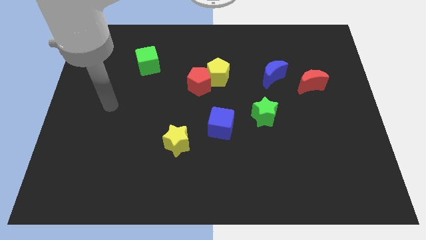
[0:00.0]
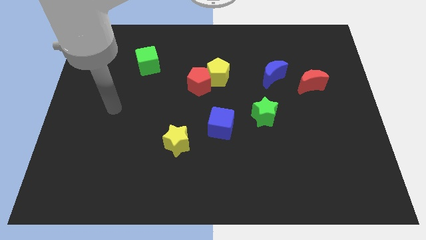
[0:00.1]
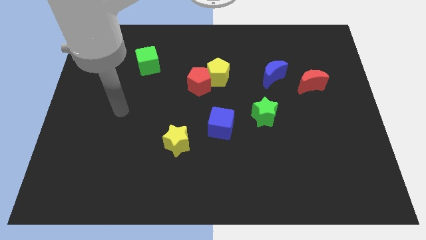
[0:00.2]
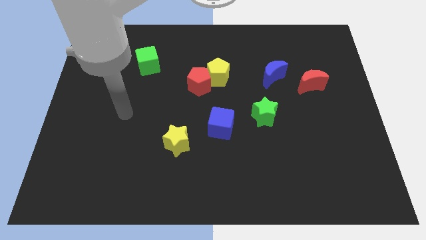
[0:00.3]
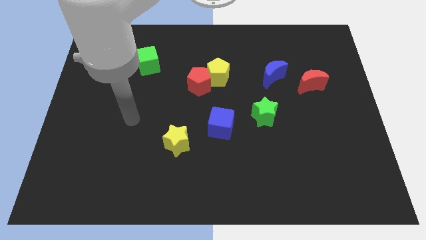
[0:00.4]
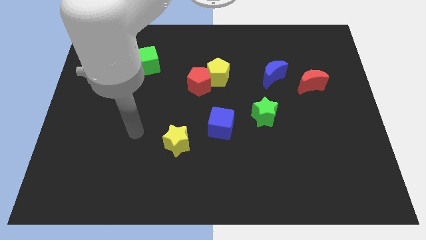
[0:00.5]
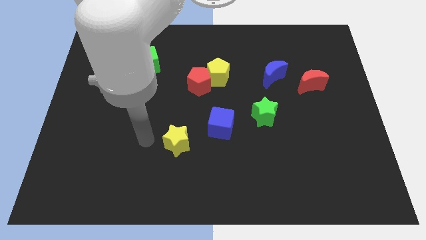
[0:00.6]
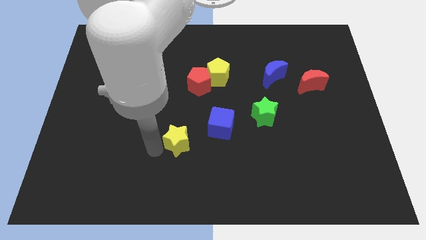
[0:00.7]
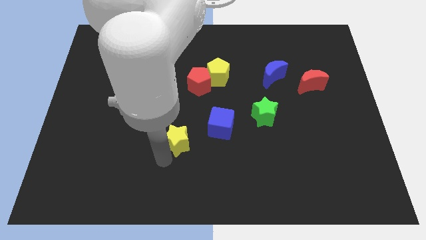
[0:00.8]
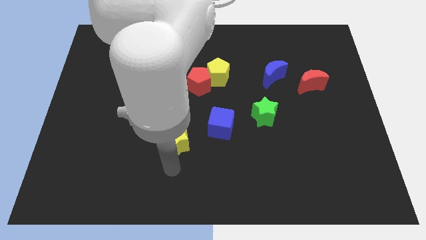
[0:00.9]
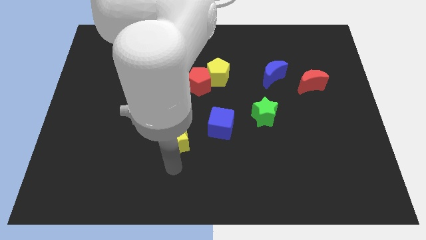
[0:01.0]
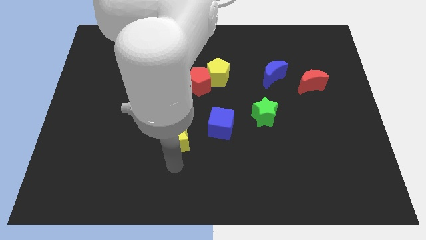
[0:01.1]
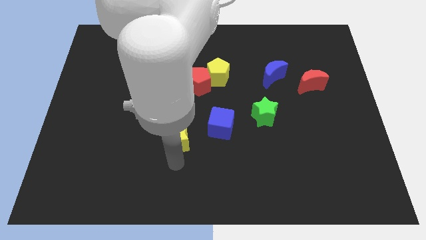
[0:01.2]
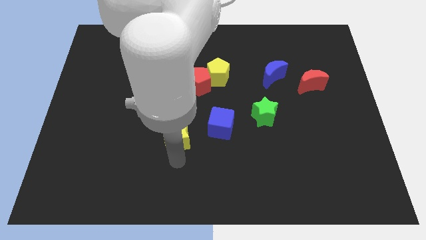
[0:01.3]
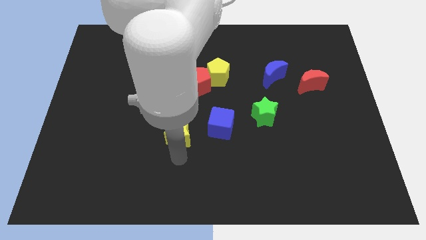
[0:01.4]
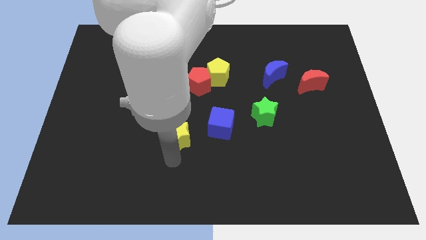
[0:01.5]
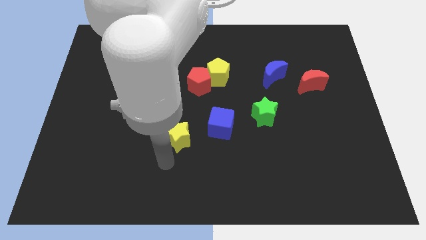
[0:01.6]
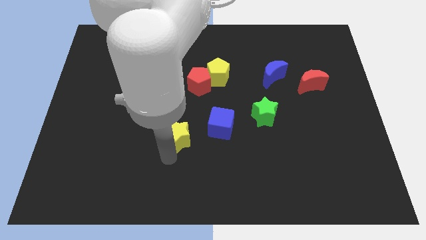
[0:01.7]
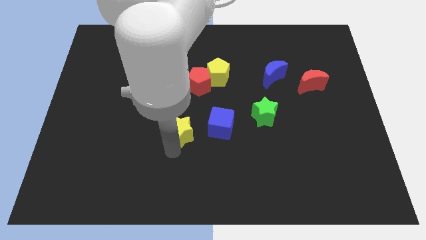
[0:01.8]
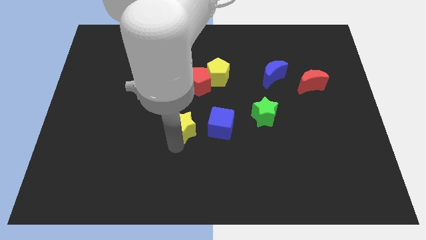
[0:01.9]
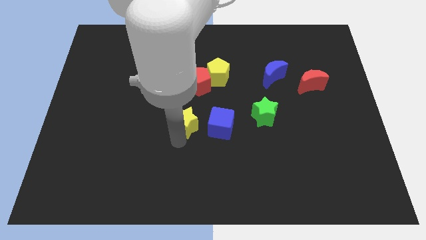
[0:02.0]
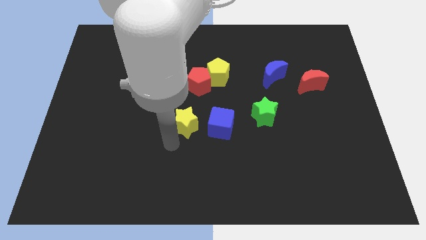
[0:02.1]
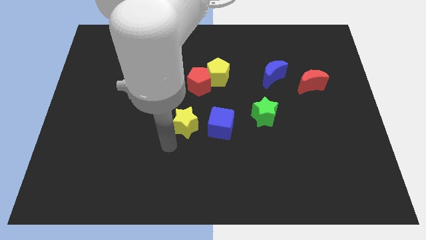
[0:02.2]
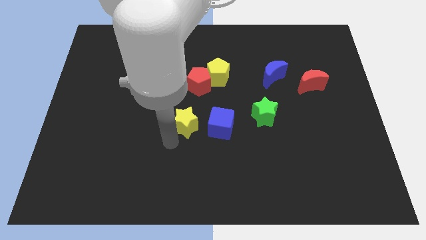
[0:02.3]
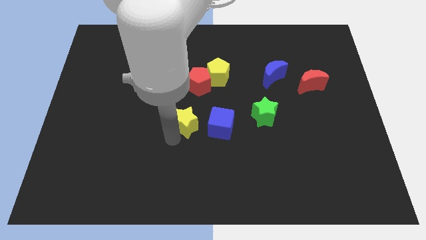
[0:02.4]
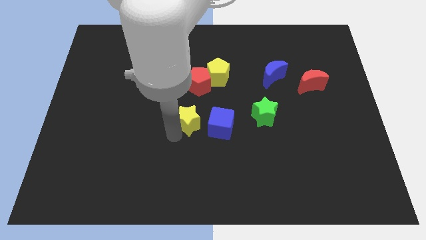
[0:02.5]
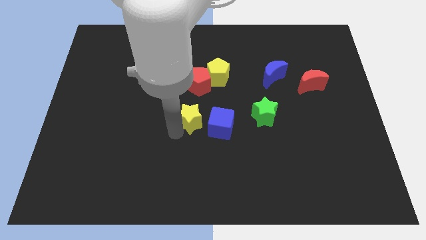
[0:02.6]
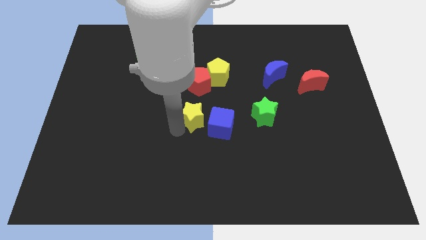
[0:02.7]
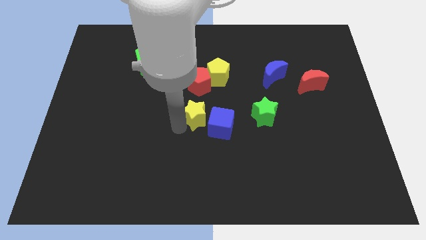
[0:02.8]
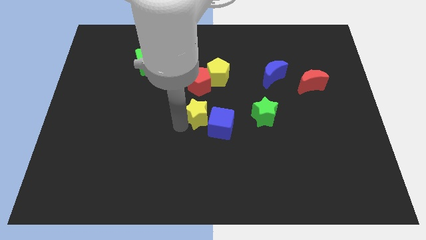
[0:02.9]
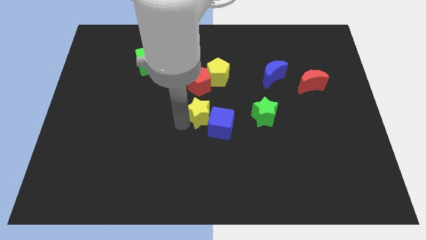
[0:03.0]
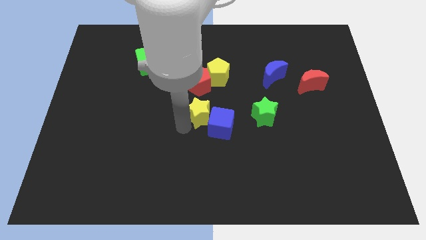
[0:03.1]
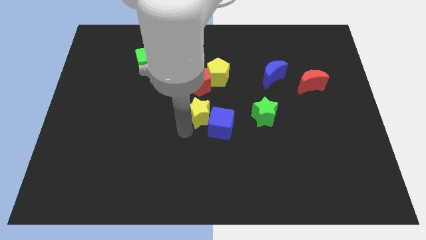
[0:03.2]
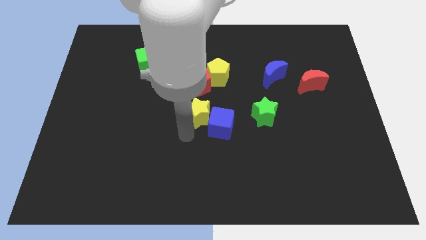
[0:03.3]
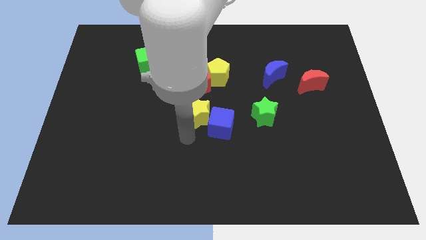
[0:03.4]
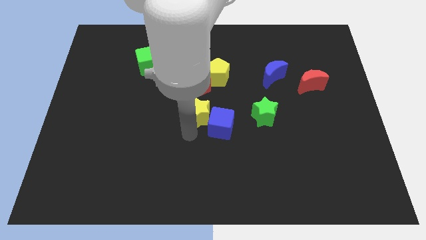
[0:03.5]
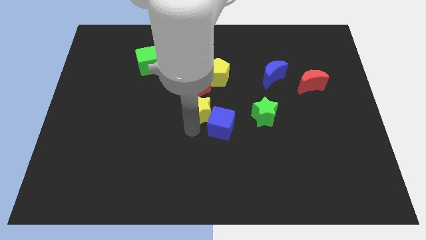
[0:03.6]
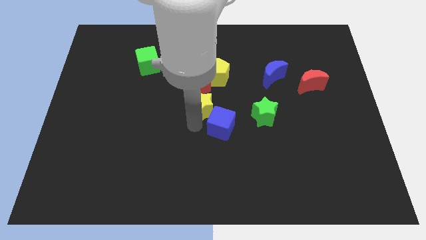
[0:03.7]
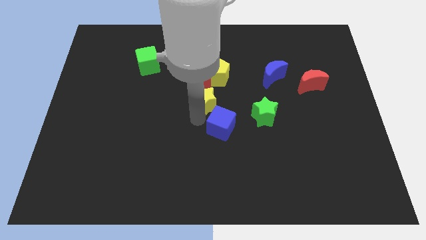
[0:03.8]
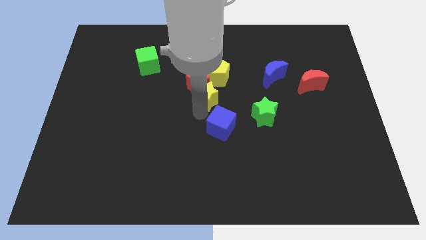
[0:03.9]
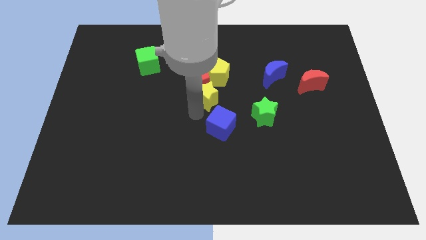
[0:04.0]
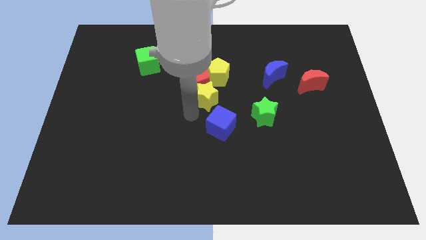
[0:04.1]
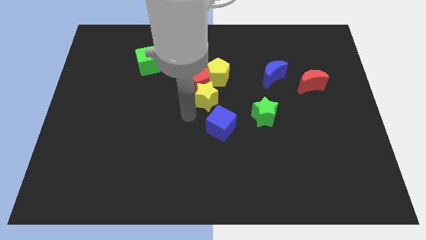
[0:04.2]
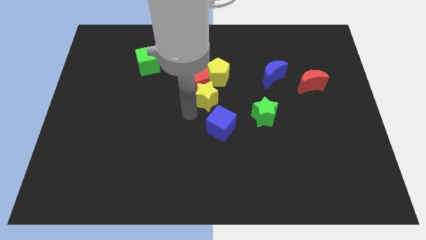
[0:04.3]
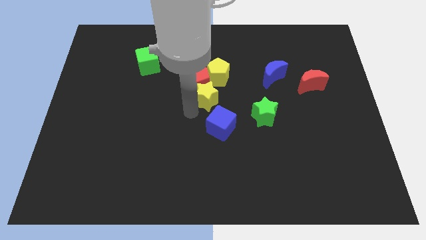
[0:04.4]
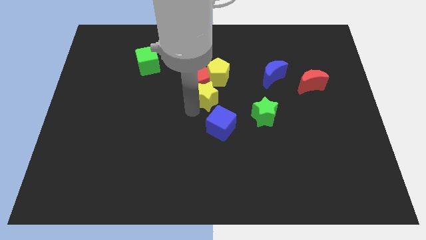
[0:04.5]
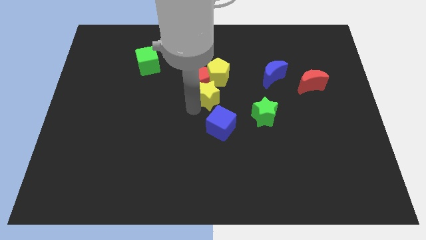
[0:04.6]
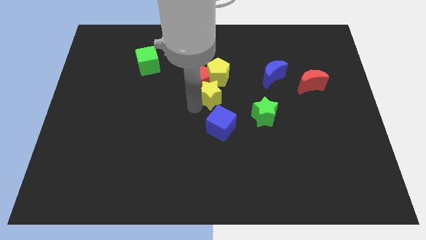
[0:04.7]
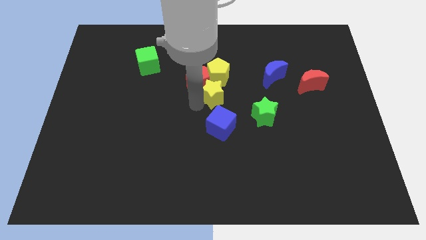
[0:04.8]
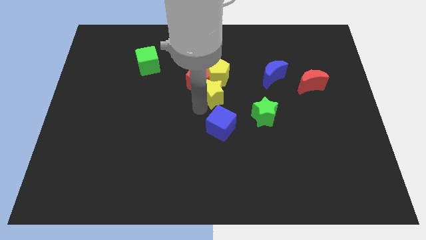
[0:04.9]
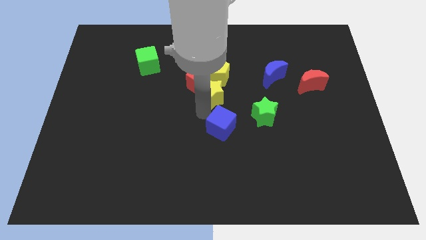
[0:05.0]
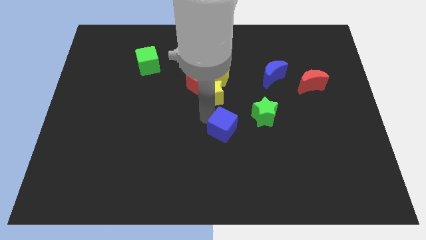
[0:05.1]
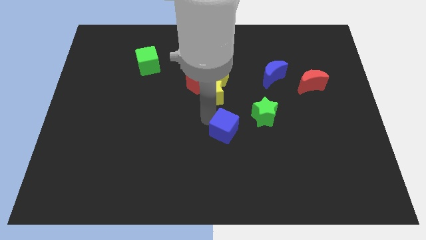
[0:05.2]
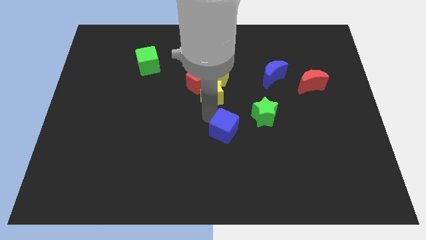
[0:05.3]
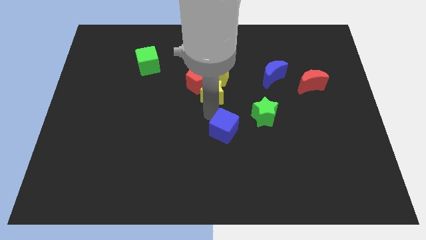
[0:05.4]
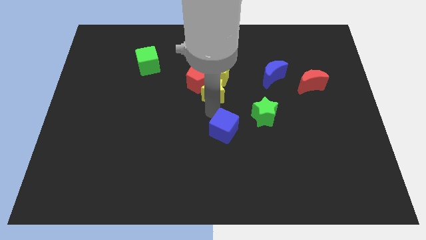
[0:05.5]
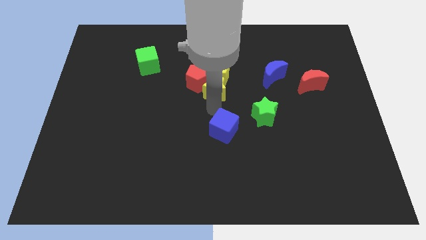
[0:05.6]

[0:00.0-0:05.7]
slide the yellow star close to the yellow pentagon
